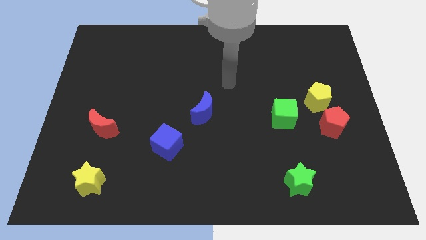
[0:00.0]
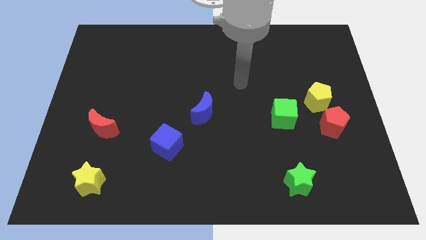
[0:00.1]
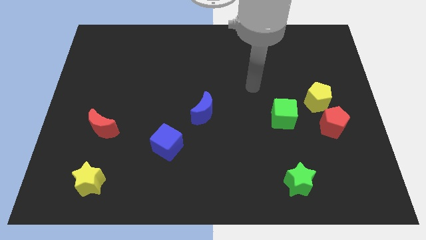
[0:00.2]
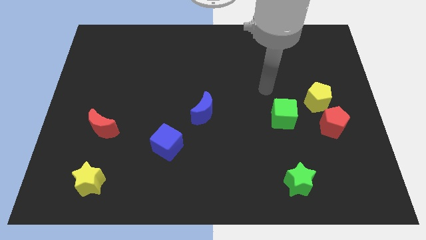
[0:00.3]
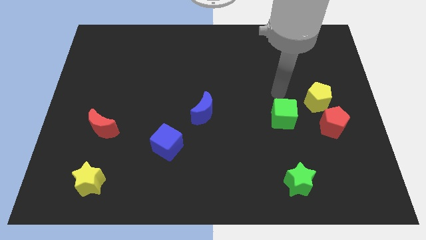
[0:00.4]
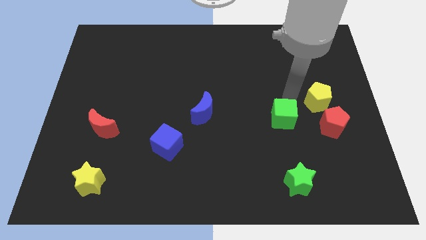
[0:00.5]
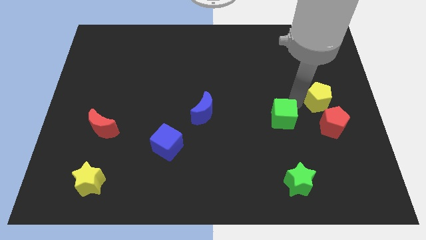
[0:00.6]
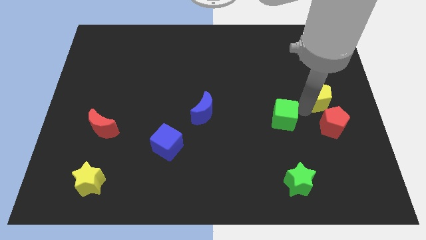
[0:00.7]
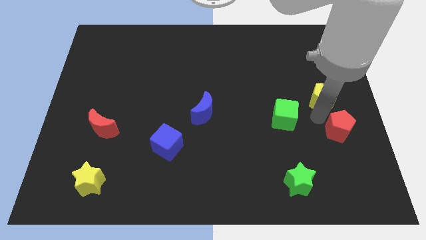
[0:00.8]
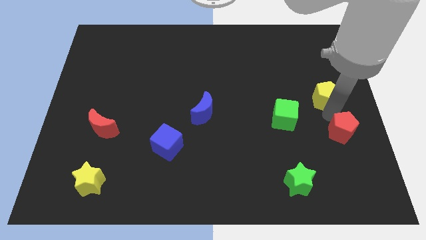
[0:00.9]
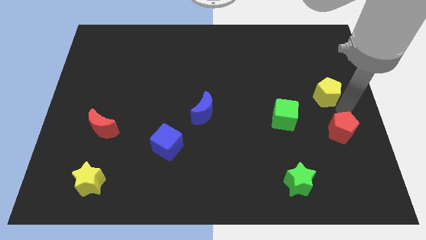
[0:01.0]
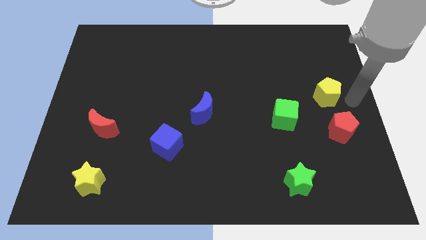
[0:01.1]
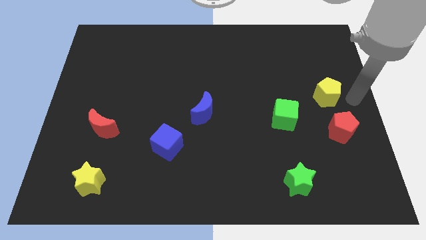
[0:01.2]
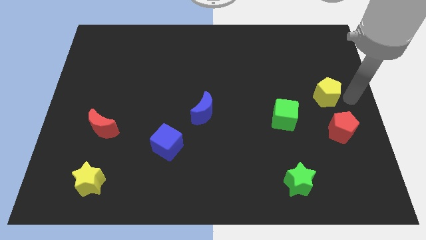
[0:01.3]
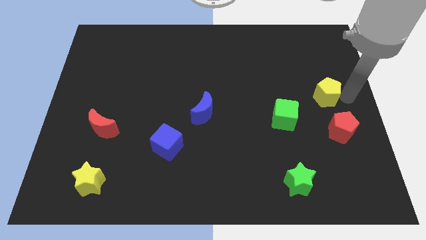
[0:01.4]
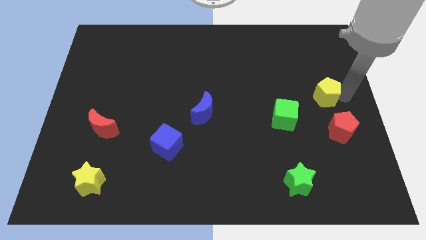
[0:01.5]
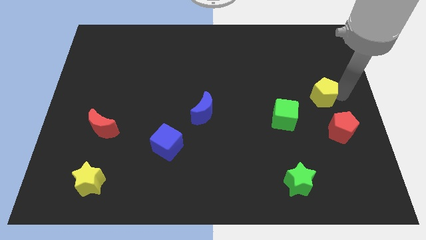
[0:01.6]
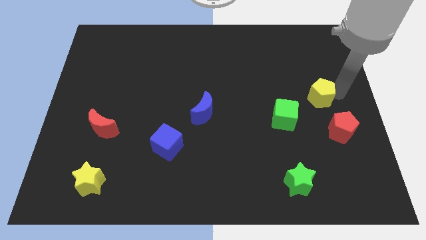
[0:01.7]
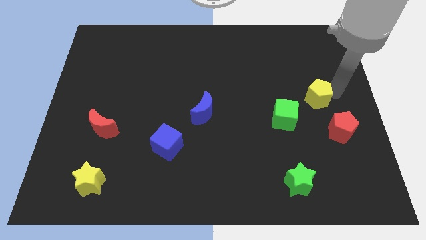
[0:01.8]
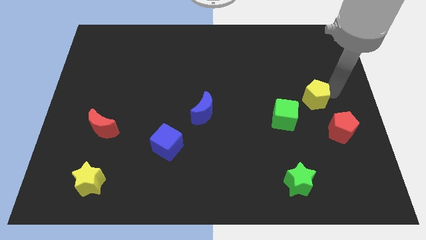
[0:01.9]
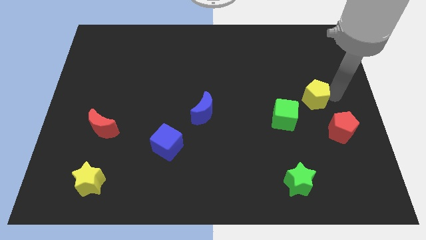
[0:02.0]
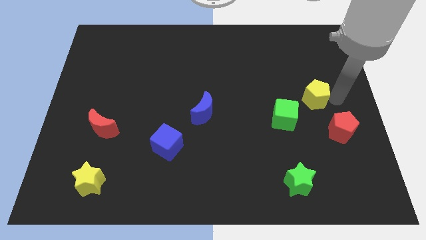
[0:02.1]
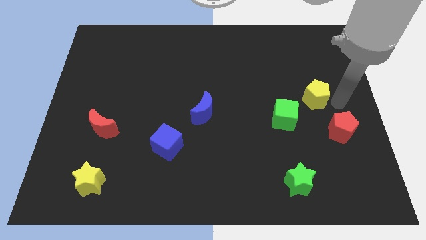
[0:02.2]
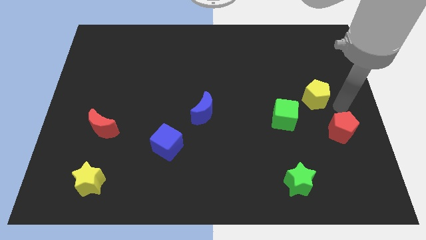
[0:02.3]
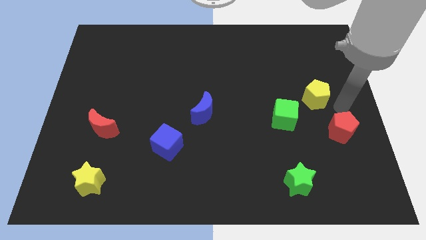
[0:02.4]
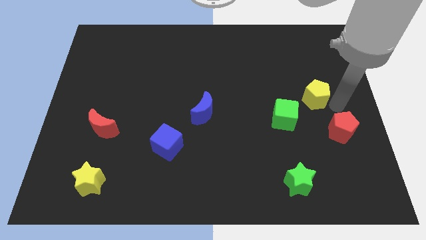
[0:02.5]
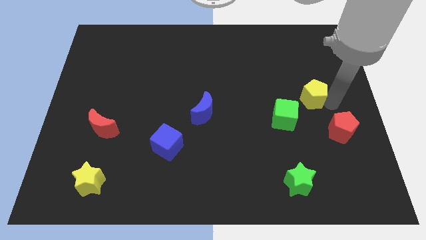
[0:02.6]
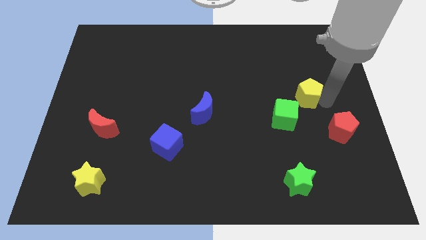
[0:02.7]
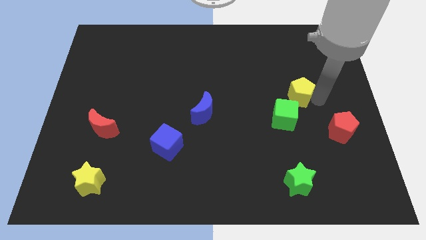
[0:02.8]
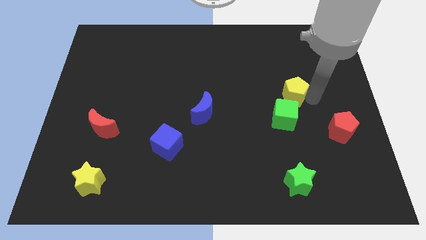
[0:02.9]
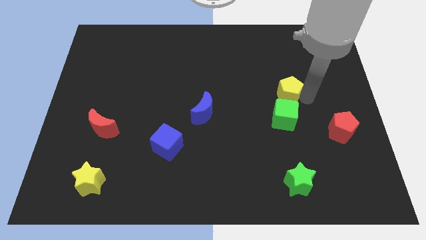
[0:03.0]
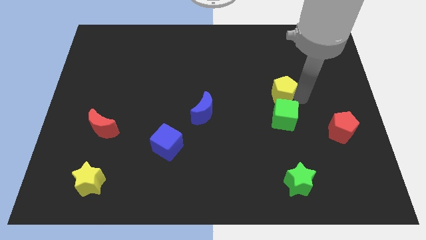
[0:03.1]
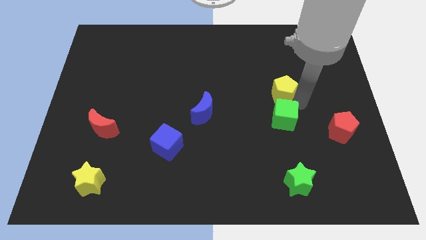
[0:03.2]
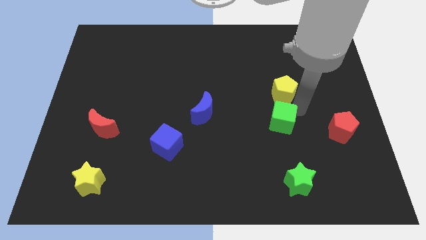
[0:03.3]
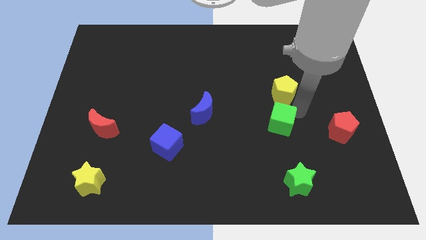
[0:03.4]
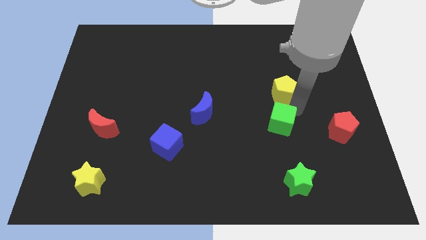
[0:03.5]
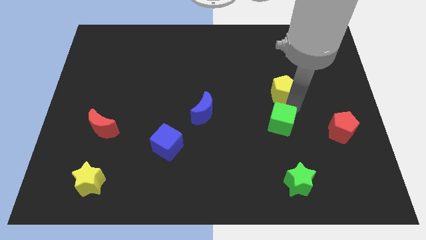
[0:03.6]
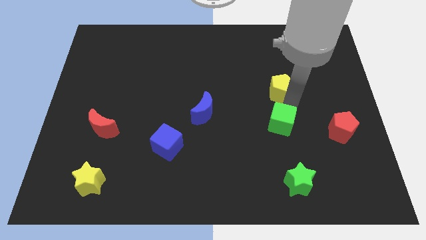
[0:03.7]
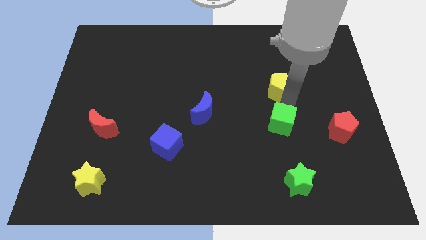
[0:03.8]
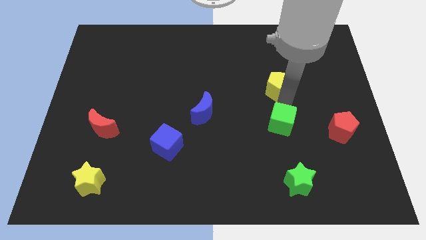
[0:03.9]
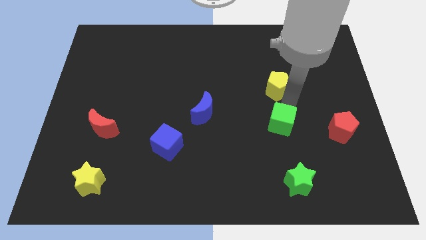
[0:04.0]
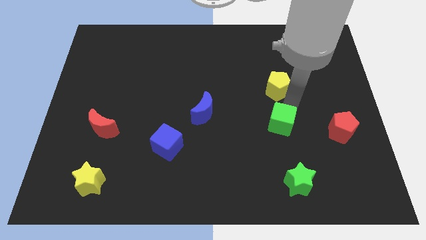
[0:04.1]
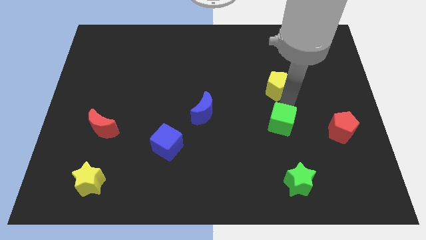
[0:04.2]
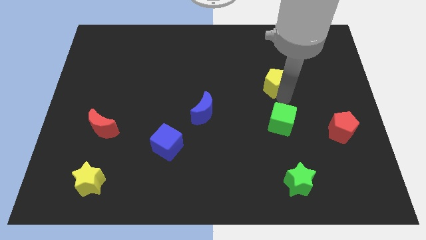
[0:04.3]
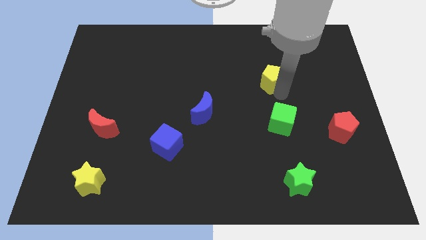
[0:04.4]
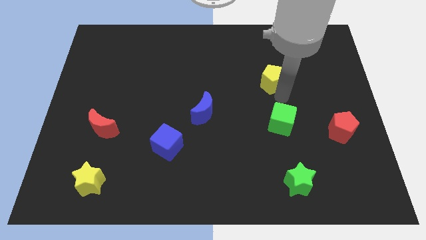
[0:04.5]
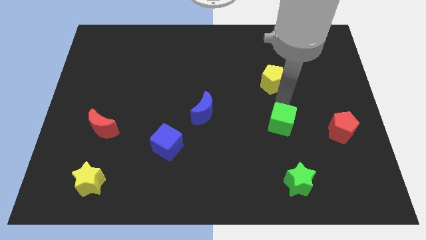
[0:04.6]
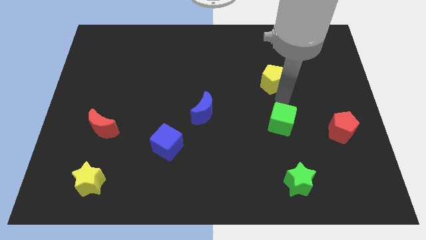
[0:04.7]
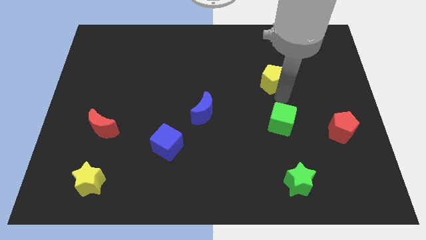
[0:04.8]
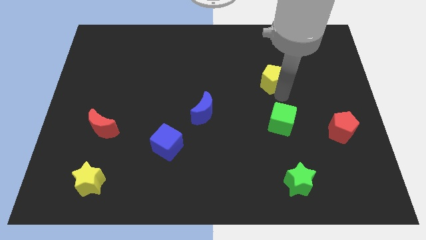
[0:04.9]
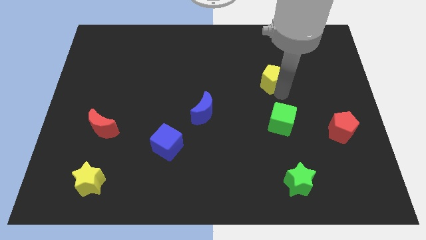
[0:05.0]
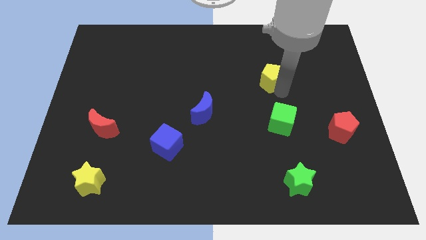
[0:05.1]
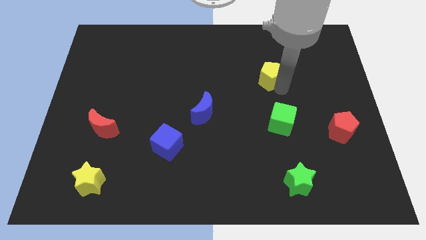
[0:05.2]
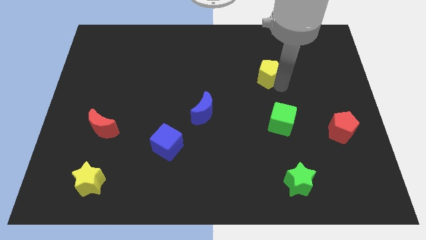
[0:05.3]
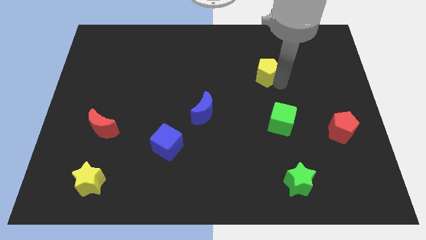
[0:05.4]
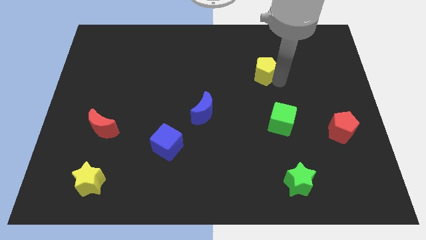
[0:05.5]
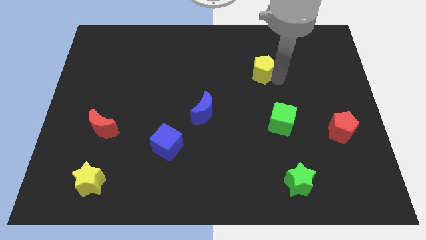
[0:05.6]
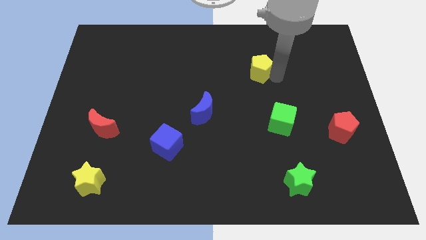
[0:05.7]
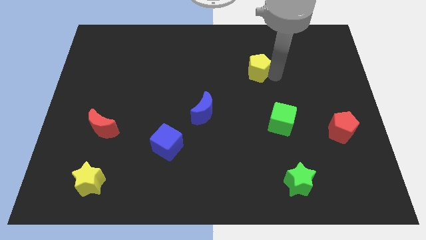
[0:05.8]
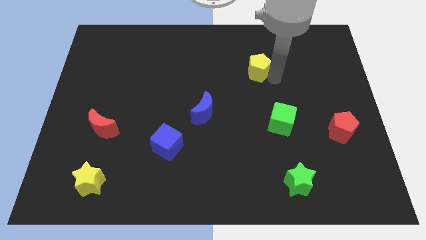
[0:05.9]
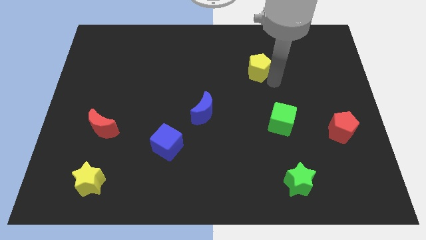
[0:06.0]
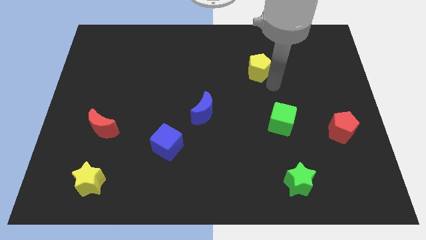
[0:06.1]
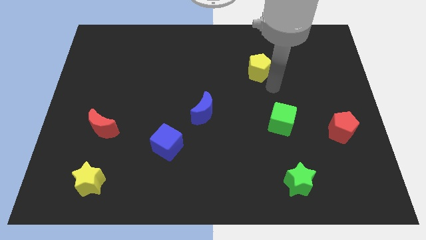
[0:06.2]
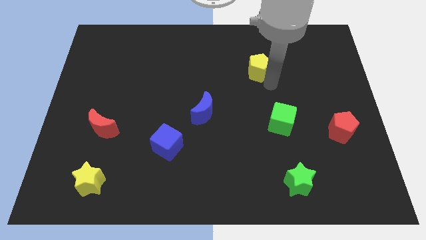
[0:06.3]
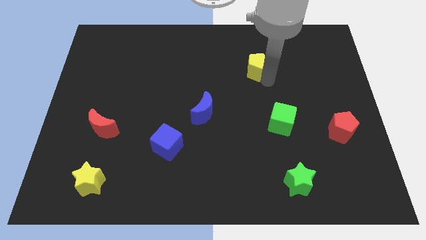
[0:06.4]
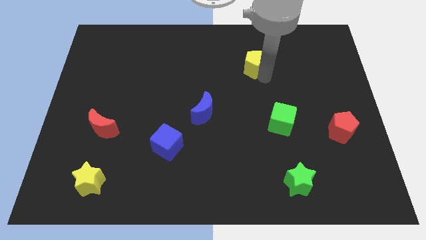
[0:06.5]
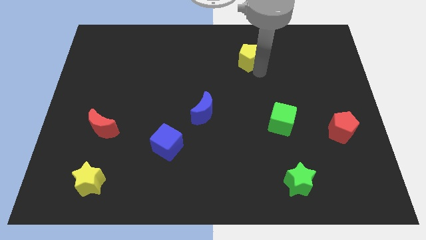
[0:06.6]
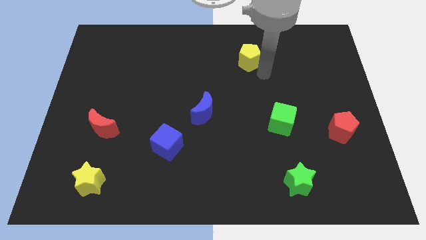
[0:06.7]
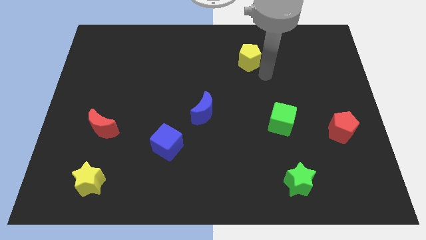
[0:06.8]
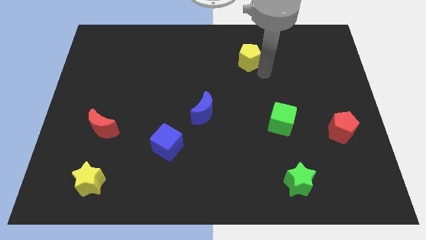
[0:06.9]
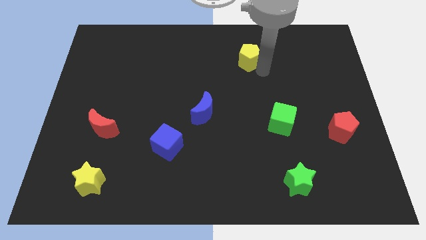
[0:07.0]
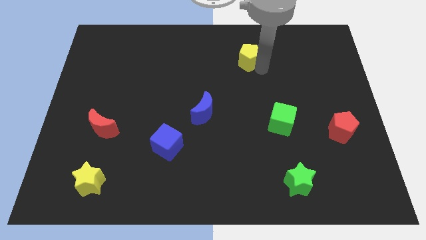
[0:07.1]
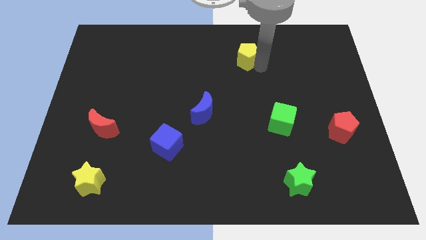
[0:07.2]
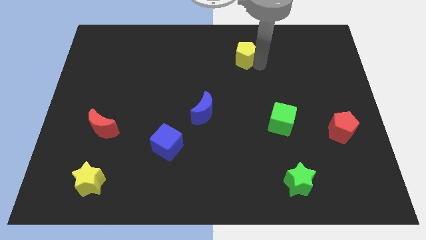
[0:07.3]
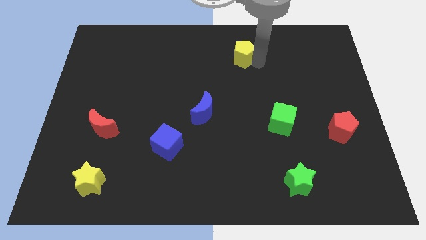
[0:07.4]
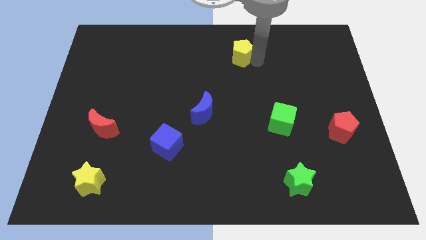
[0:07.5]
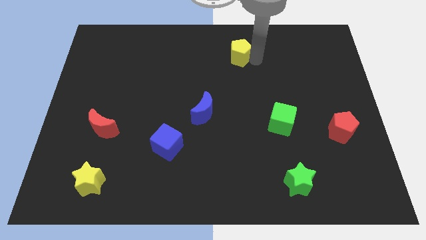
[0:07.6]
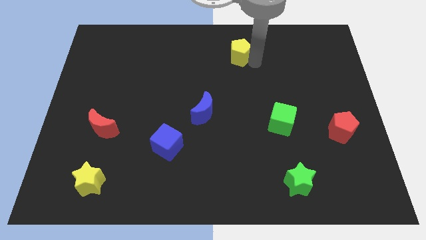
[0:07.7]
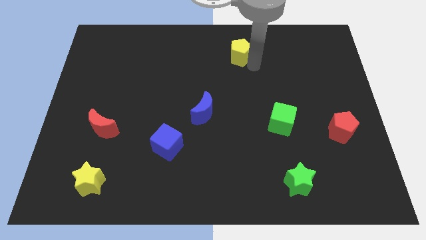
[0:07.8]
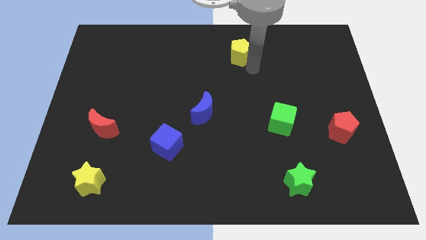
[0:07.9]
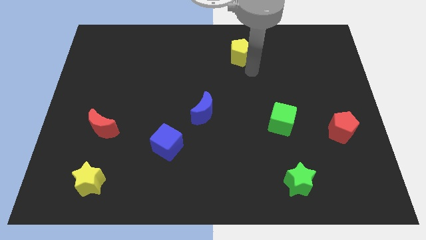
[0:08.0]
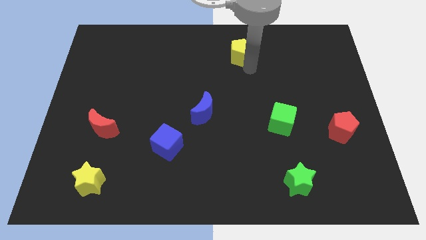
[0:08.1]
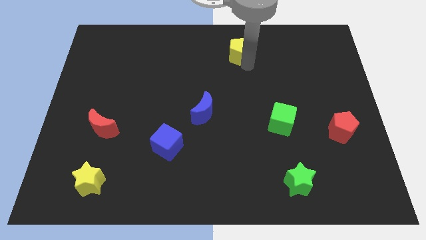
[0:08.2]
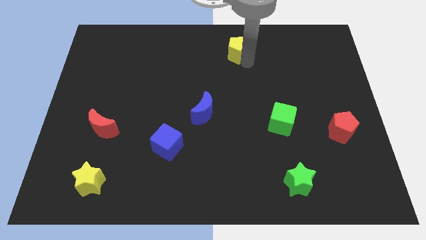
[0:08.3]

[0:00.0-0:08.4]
put the yellow pentagon to the top side
